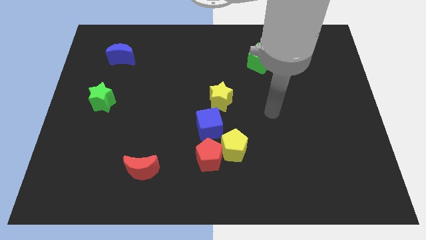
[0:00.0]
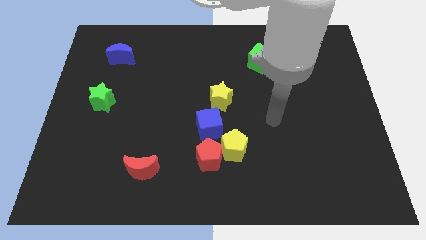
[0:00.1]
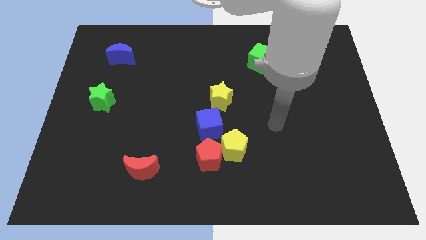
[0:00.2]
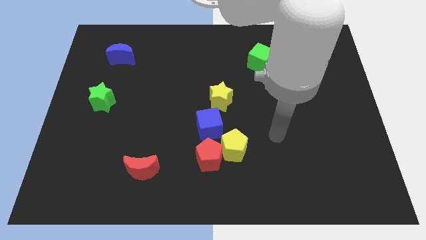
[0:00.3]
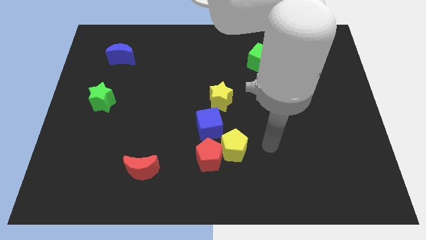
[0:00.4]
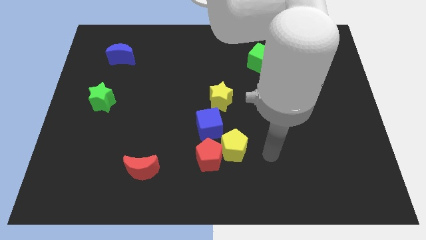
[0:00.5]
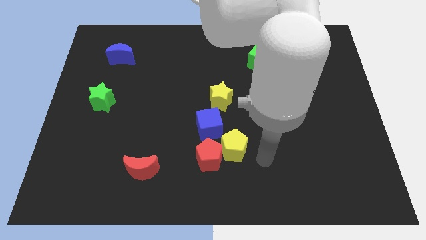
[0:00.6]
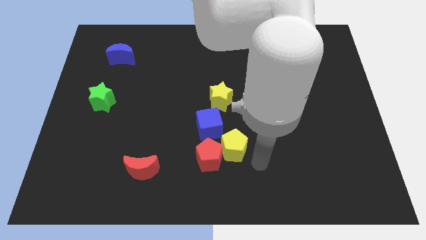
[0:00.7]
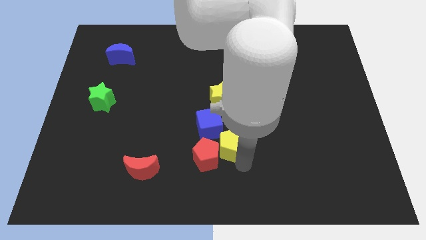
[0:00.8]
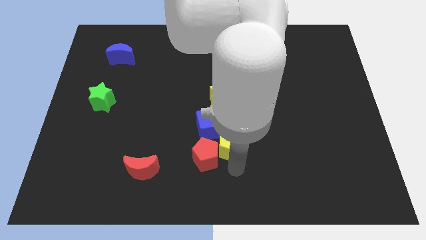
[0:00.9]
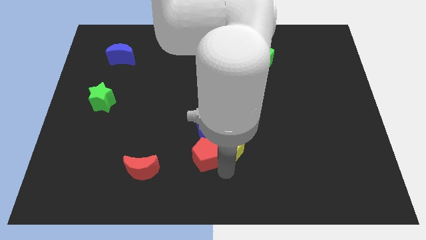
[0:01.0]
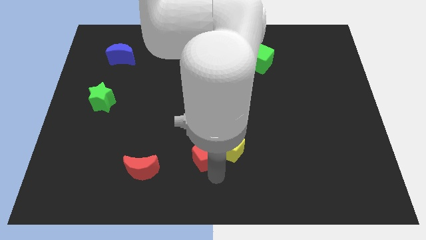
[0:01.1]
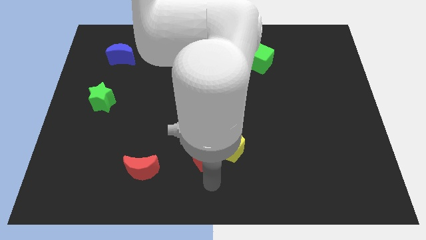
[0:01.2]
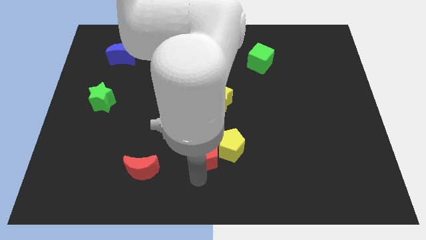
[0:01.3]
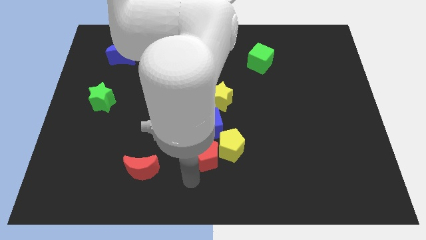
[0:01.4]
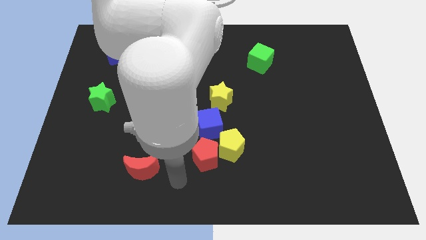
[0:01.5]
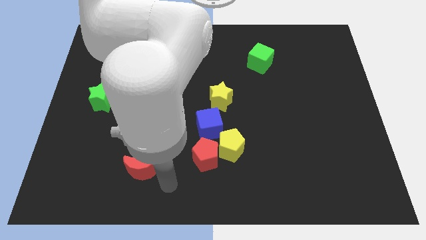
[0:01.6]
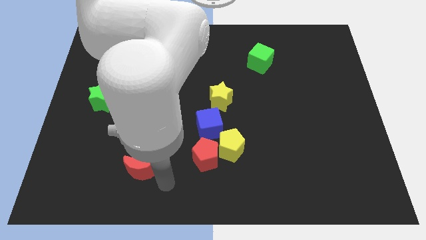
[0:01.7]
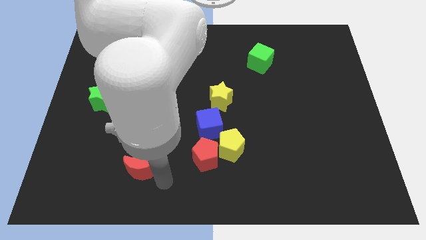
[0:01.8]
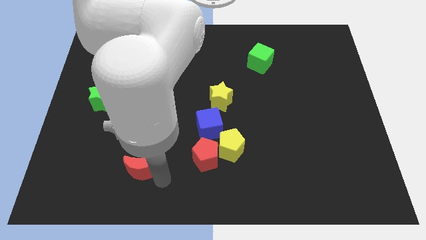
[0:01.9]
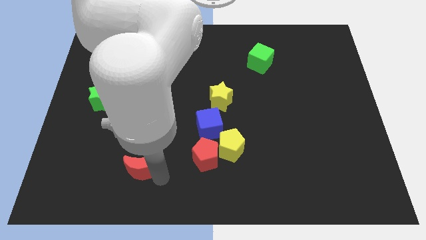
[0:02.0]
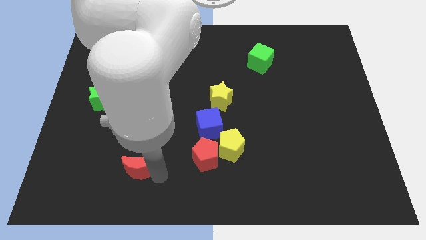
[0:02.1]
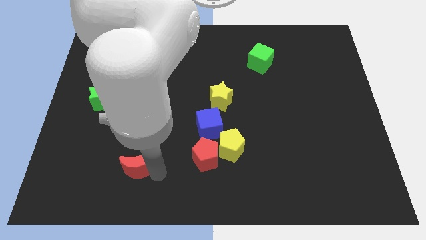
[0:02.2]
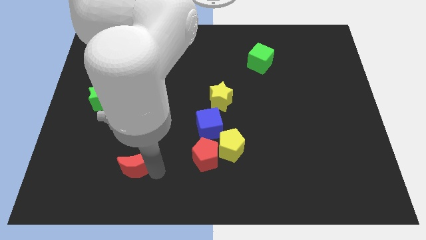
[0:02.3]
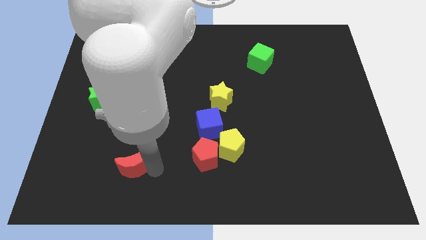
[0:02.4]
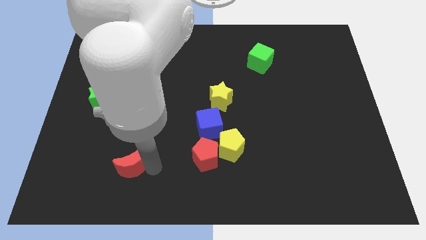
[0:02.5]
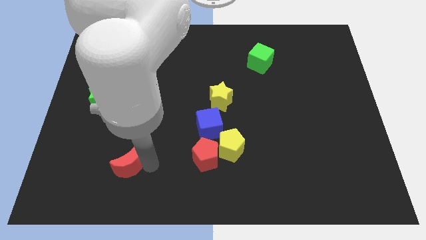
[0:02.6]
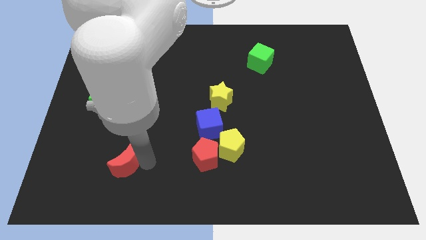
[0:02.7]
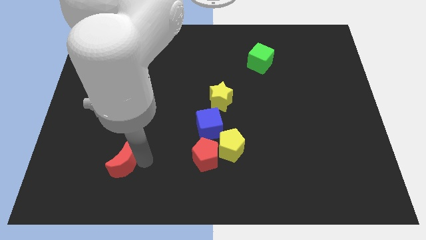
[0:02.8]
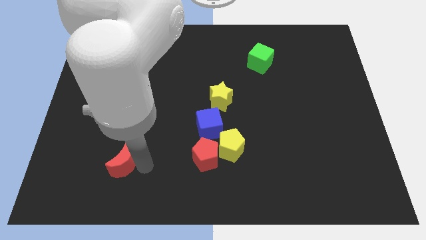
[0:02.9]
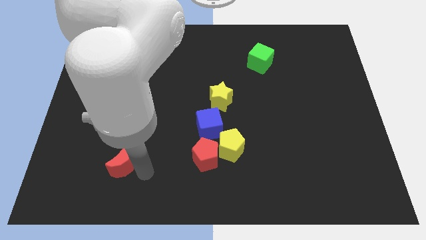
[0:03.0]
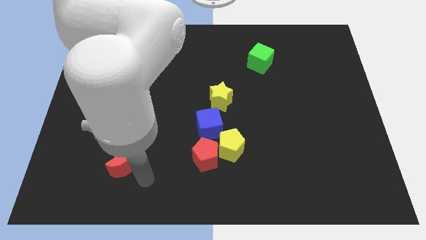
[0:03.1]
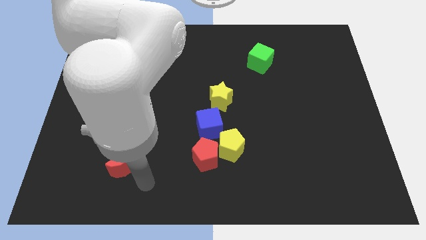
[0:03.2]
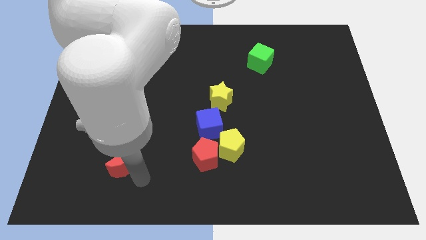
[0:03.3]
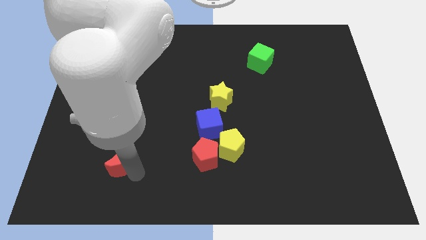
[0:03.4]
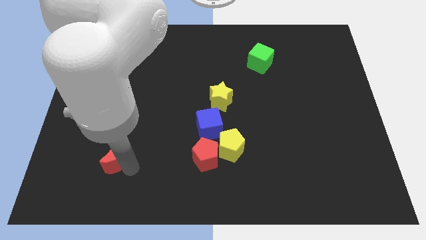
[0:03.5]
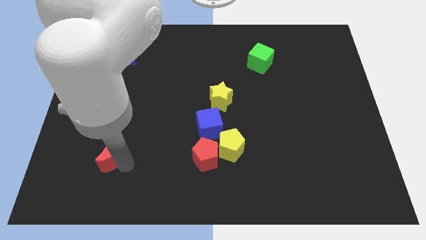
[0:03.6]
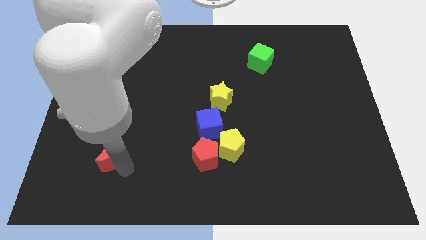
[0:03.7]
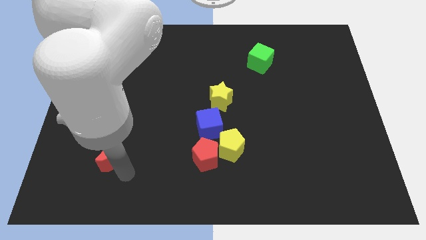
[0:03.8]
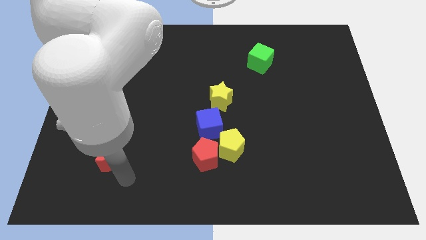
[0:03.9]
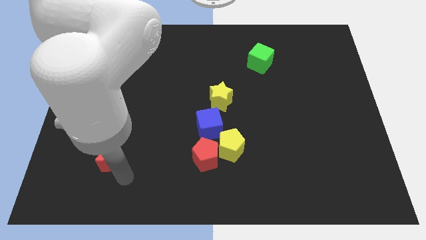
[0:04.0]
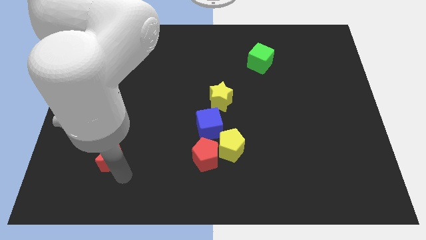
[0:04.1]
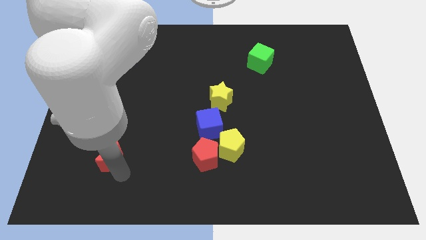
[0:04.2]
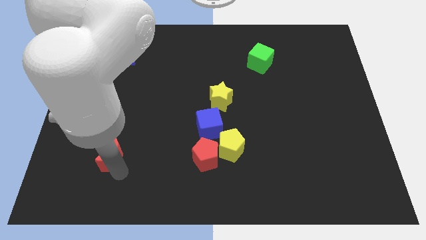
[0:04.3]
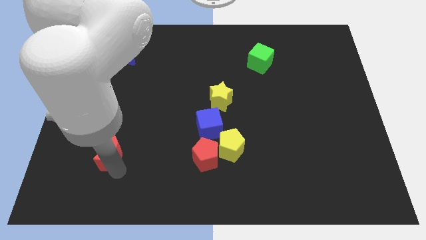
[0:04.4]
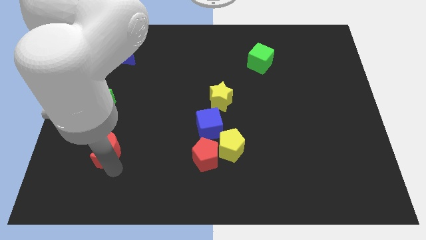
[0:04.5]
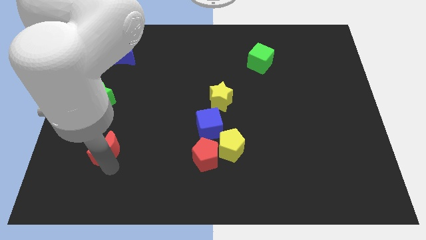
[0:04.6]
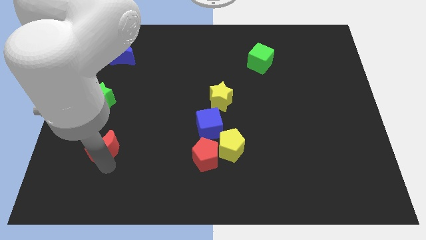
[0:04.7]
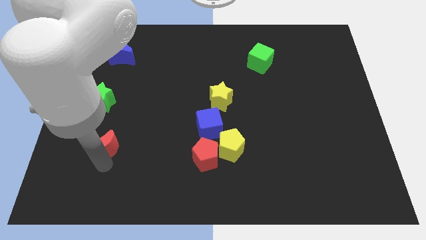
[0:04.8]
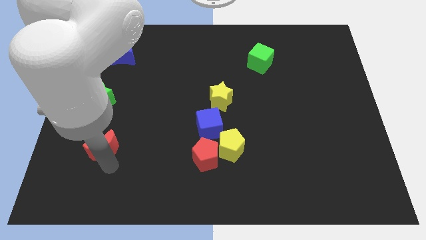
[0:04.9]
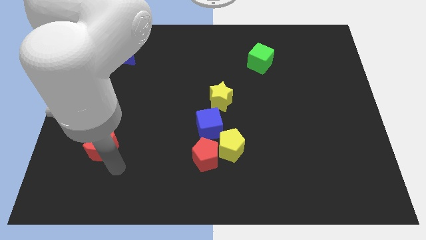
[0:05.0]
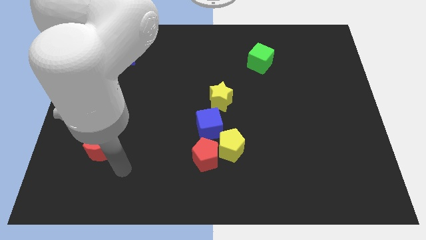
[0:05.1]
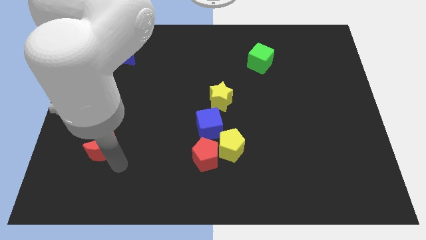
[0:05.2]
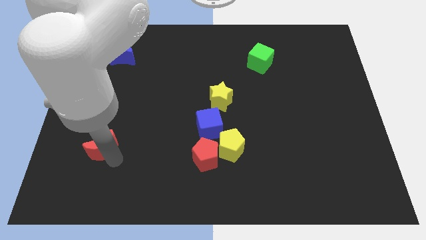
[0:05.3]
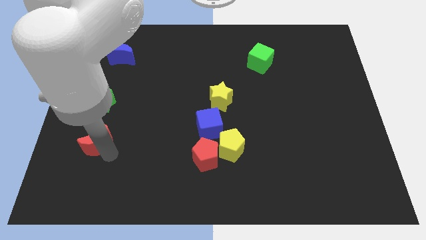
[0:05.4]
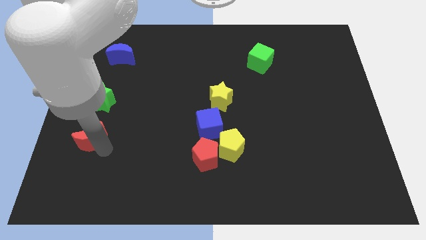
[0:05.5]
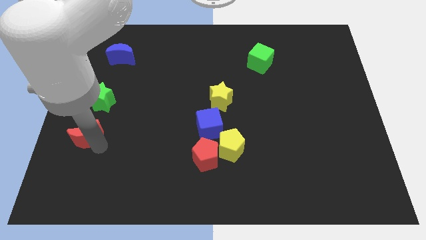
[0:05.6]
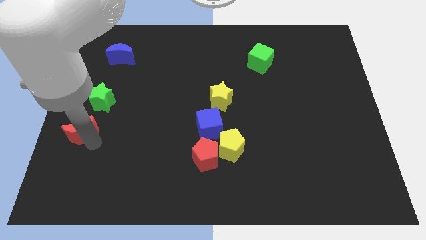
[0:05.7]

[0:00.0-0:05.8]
push the red moon to the left side of the board

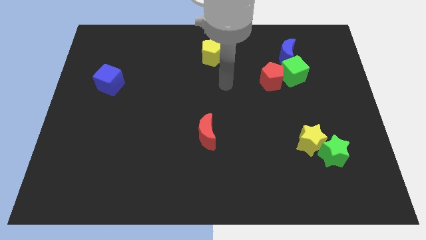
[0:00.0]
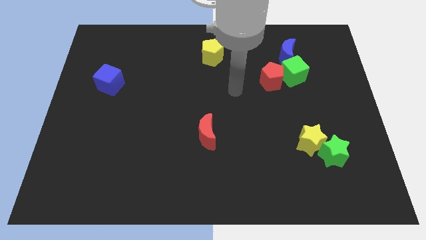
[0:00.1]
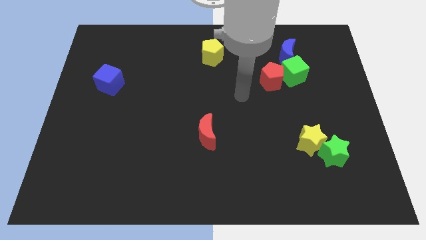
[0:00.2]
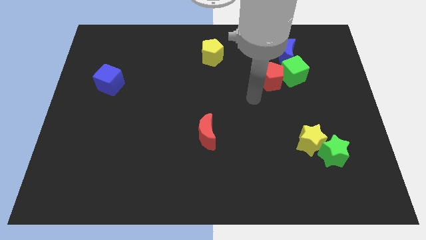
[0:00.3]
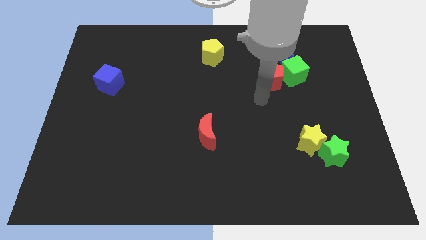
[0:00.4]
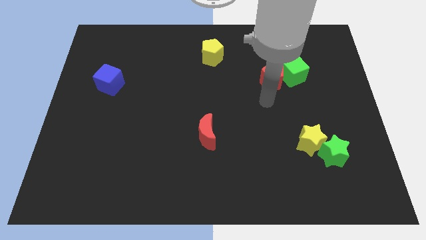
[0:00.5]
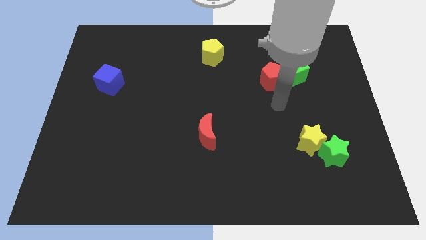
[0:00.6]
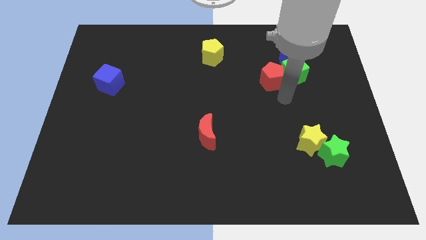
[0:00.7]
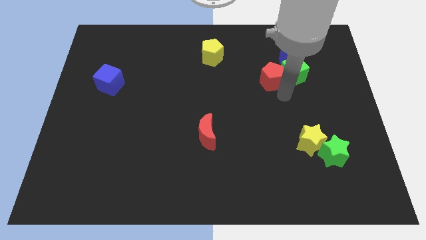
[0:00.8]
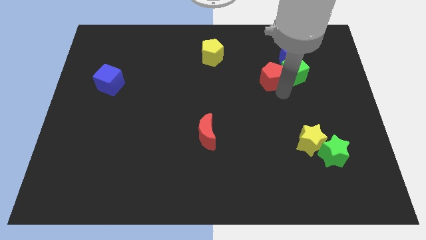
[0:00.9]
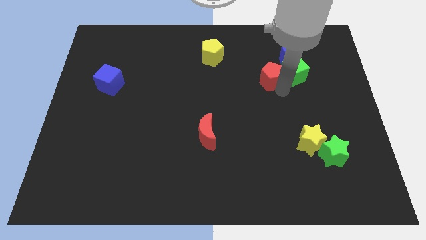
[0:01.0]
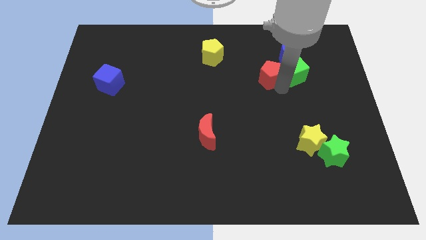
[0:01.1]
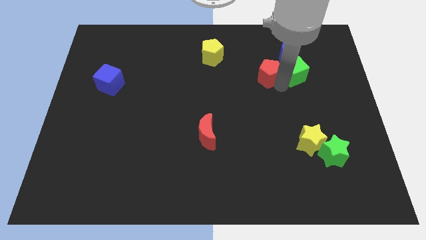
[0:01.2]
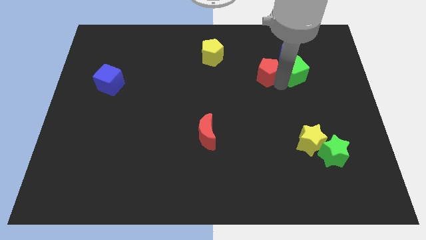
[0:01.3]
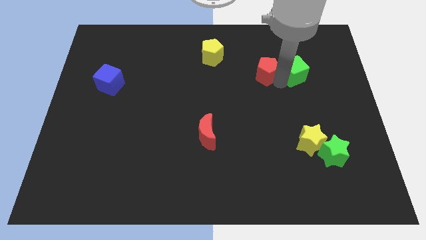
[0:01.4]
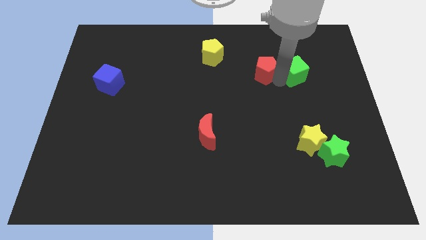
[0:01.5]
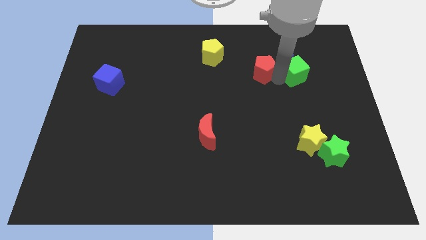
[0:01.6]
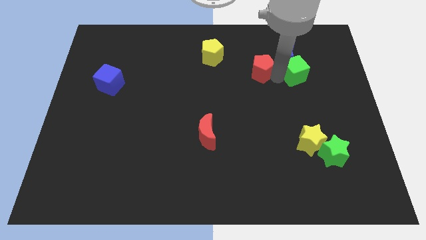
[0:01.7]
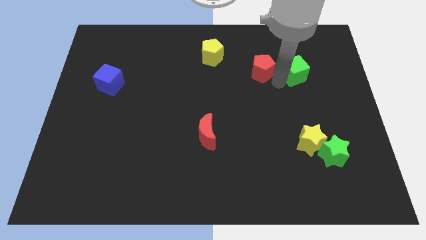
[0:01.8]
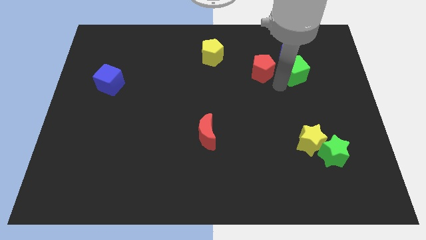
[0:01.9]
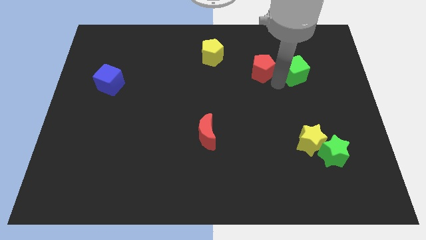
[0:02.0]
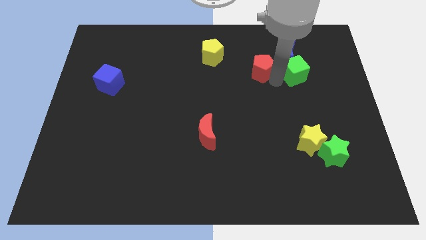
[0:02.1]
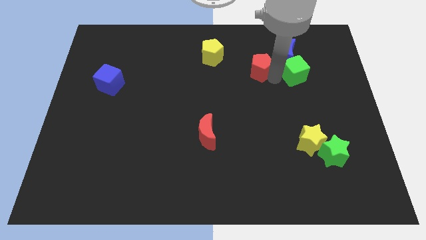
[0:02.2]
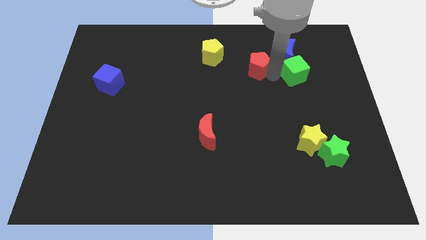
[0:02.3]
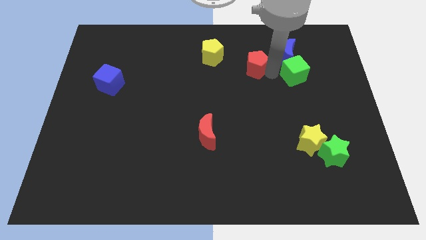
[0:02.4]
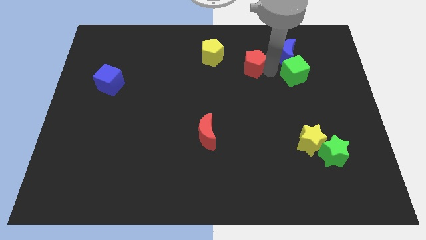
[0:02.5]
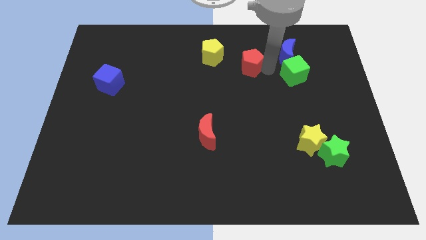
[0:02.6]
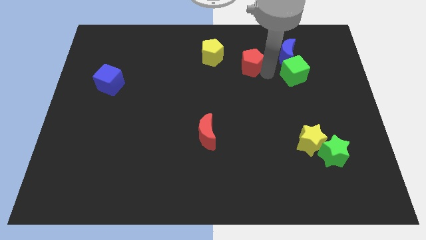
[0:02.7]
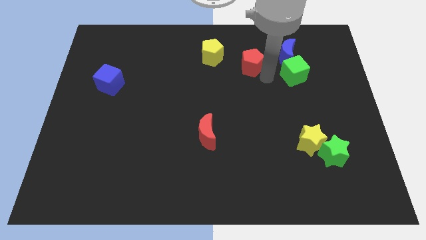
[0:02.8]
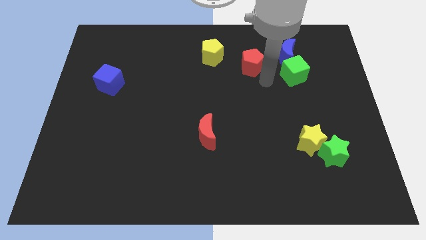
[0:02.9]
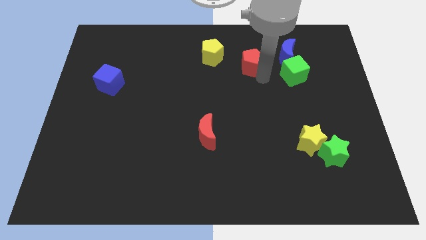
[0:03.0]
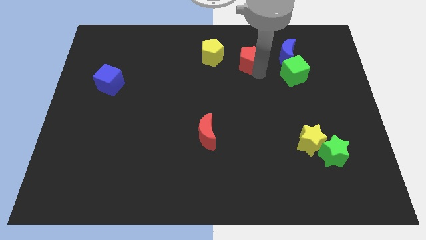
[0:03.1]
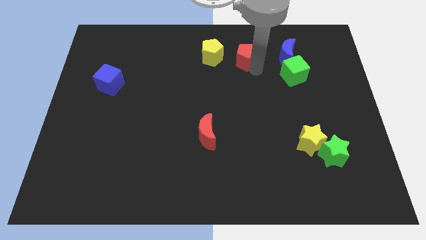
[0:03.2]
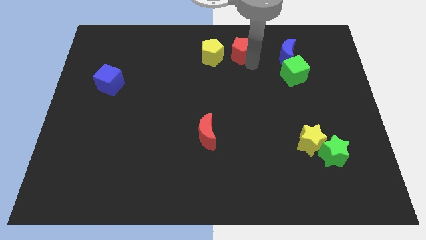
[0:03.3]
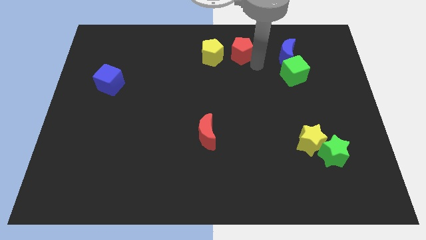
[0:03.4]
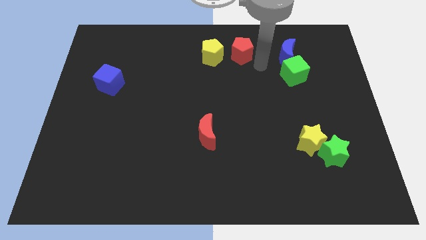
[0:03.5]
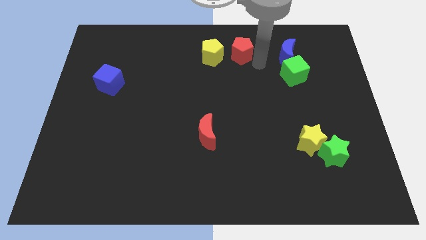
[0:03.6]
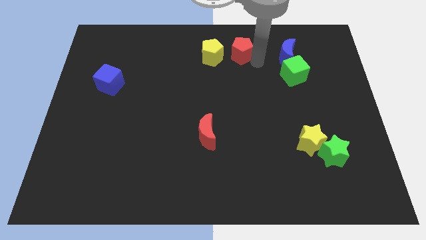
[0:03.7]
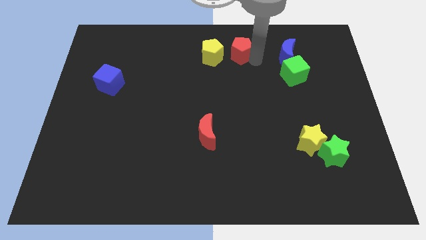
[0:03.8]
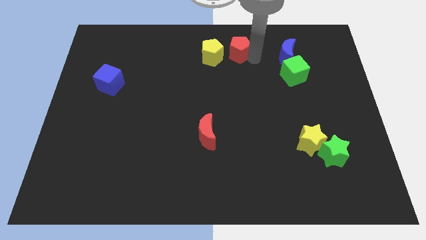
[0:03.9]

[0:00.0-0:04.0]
push the red pentagon to the top
